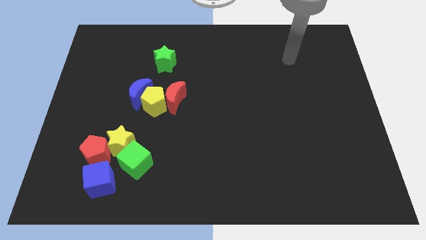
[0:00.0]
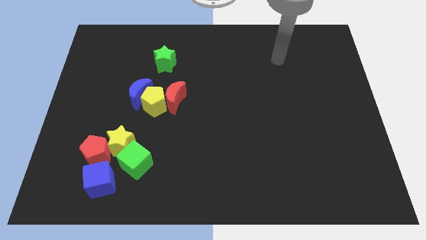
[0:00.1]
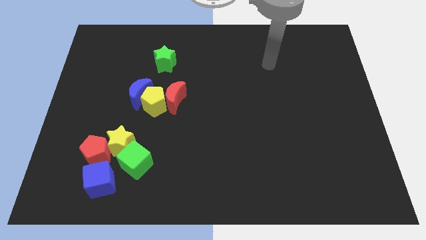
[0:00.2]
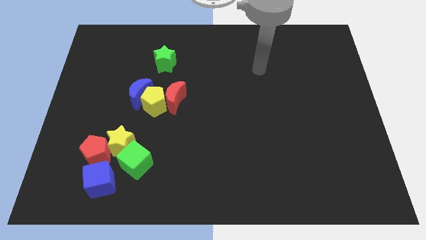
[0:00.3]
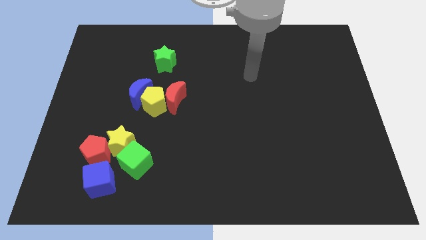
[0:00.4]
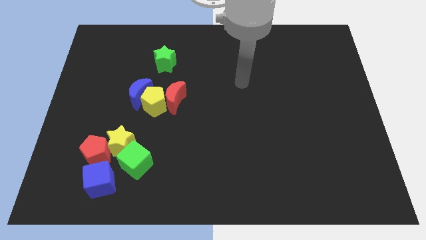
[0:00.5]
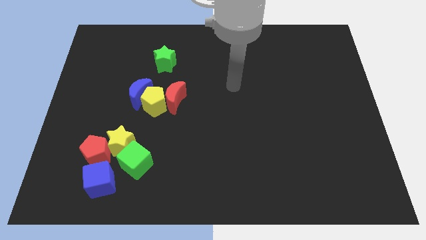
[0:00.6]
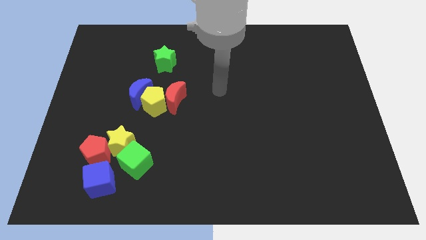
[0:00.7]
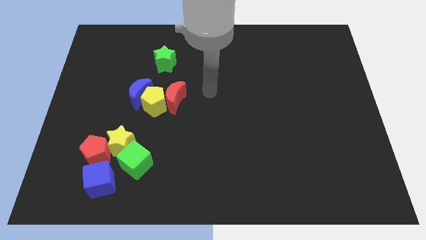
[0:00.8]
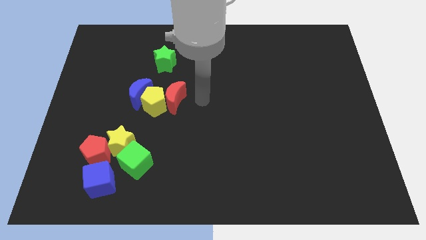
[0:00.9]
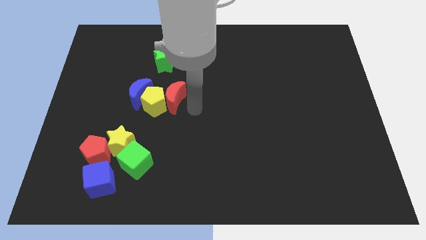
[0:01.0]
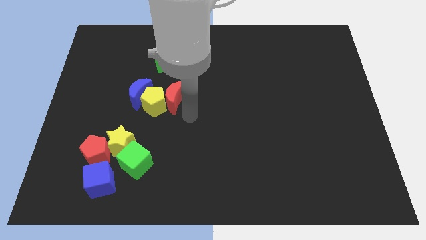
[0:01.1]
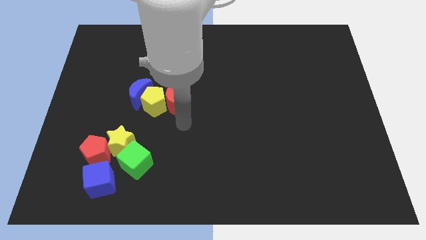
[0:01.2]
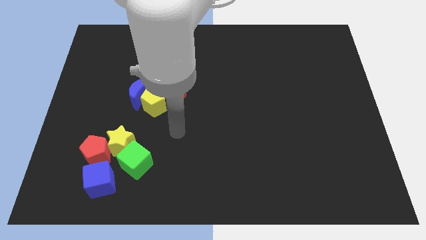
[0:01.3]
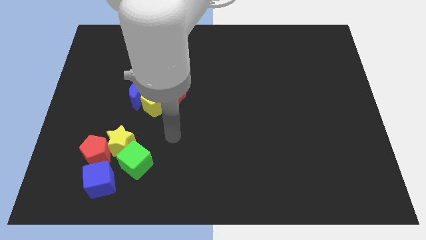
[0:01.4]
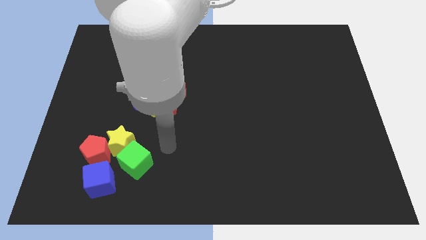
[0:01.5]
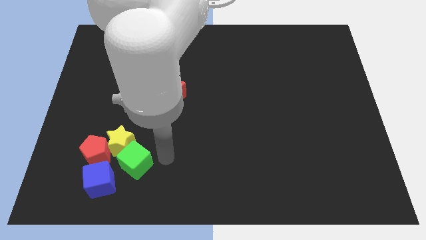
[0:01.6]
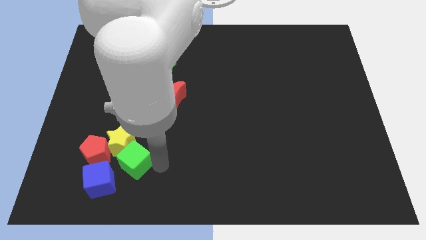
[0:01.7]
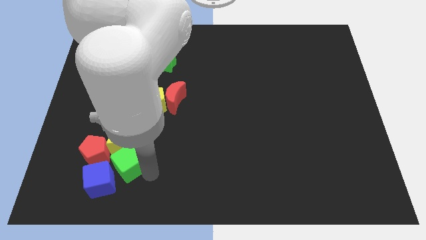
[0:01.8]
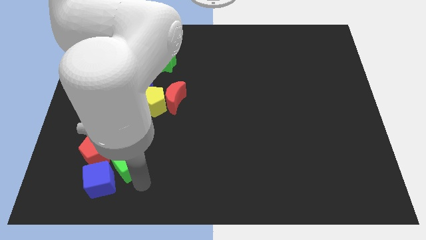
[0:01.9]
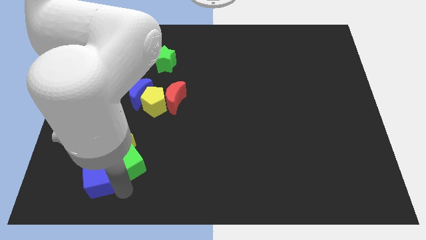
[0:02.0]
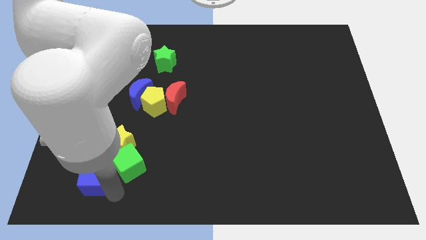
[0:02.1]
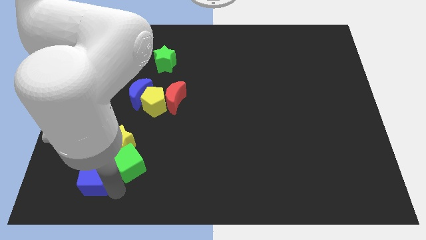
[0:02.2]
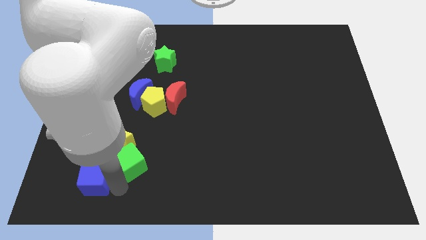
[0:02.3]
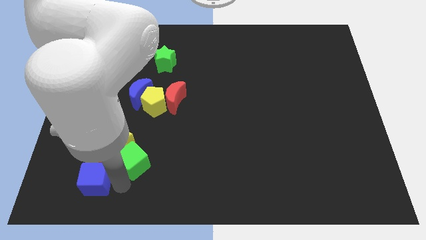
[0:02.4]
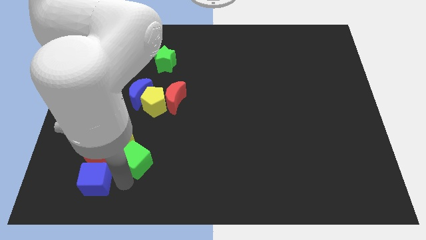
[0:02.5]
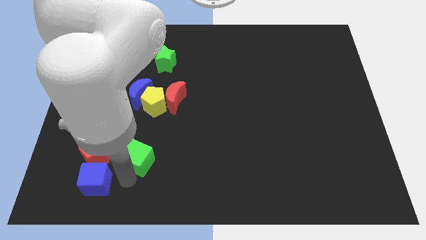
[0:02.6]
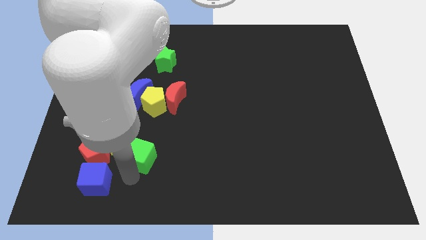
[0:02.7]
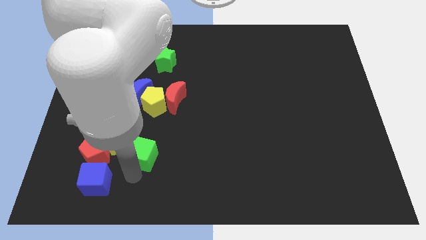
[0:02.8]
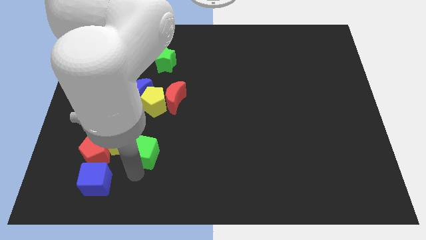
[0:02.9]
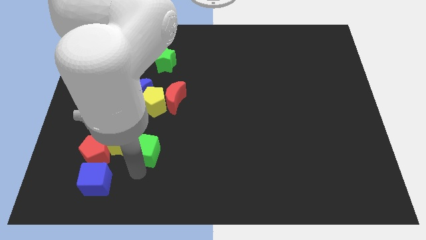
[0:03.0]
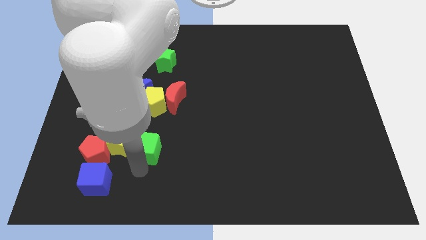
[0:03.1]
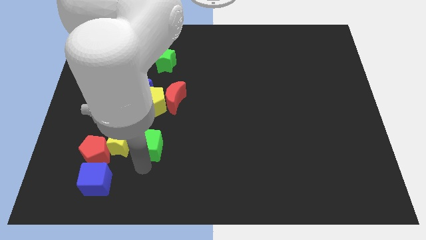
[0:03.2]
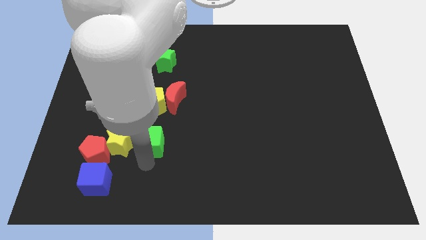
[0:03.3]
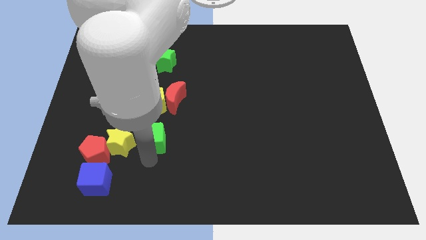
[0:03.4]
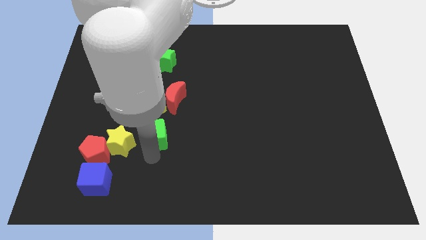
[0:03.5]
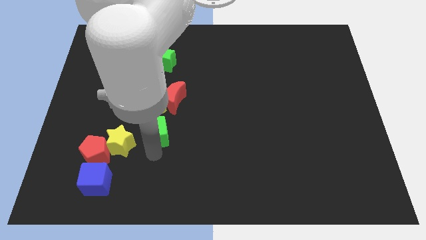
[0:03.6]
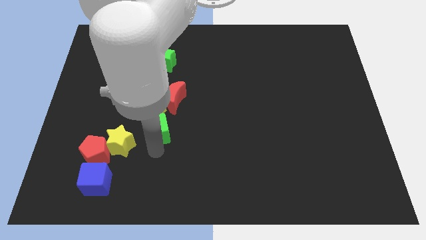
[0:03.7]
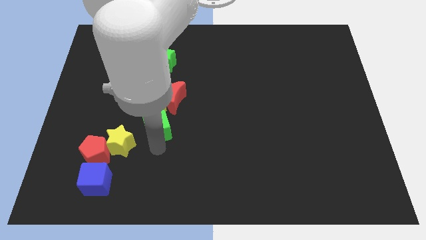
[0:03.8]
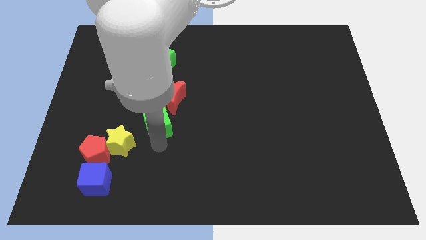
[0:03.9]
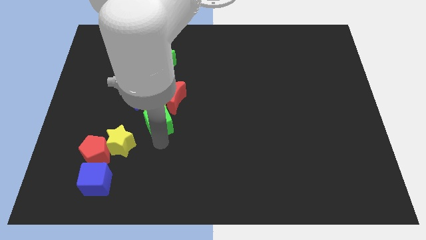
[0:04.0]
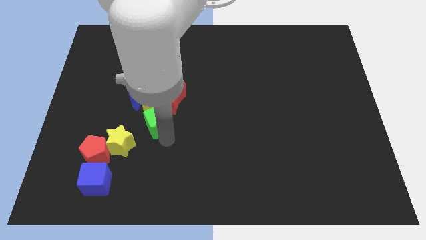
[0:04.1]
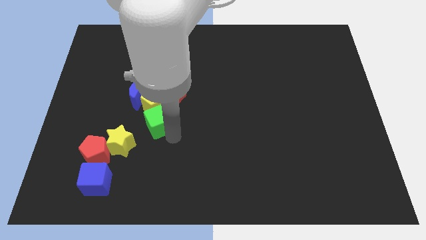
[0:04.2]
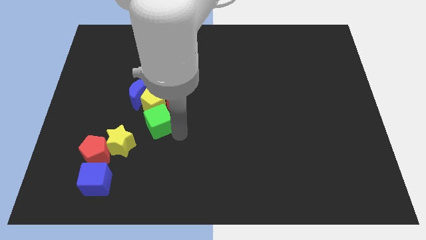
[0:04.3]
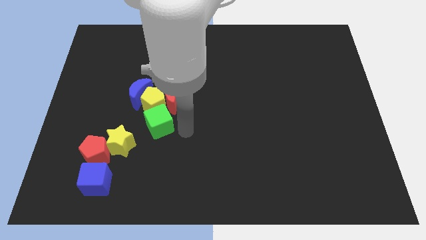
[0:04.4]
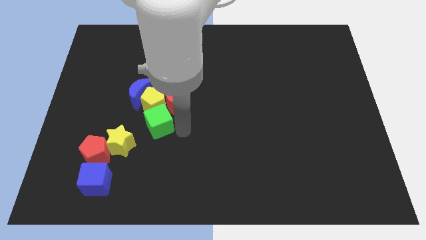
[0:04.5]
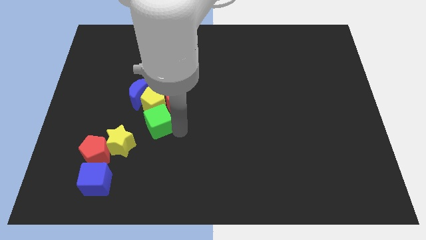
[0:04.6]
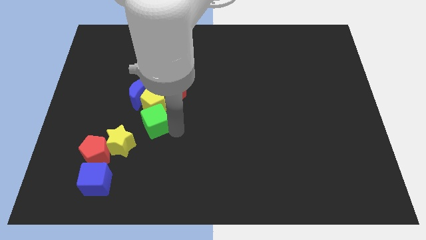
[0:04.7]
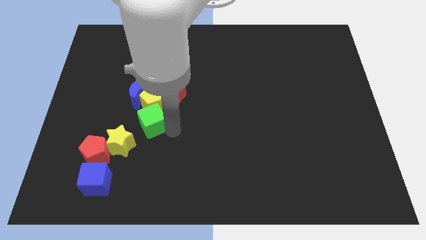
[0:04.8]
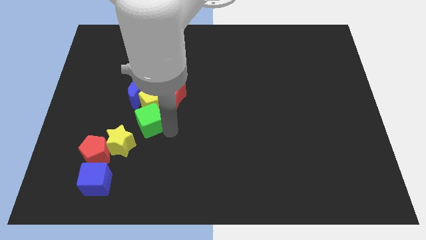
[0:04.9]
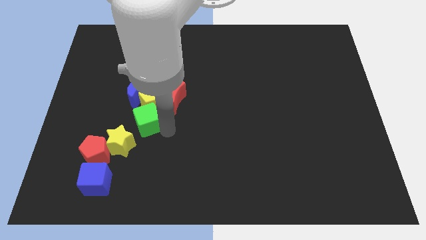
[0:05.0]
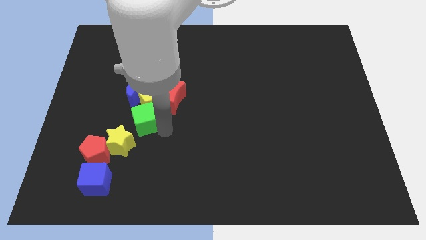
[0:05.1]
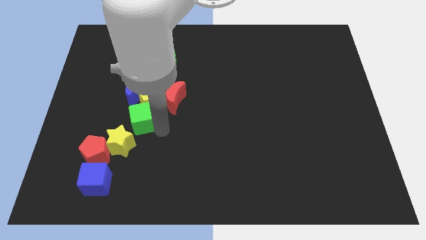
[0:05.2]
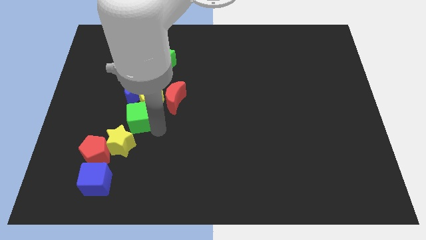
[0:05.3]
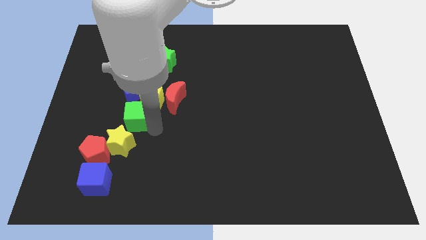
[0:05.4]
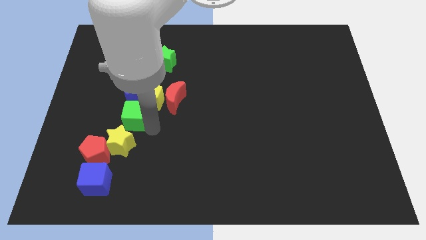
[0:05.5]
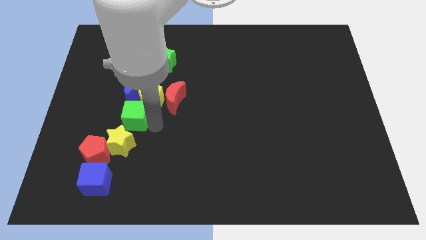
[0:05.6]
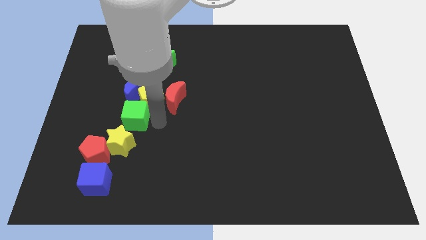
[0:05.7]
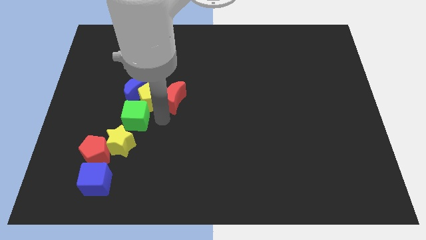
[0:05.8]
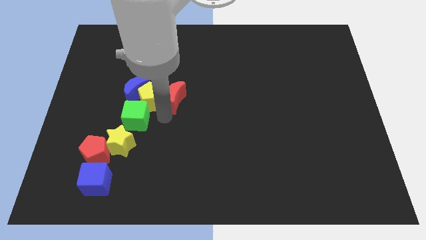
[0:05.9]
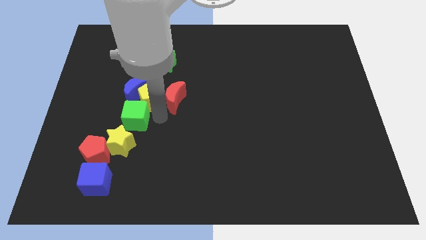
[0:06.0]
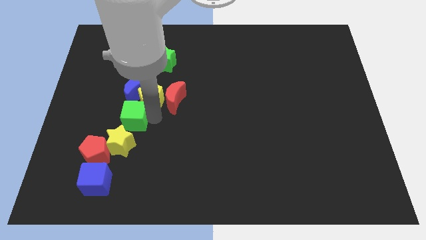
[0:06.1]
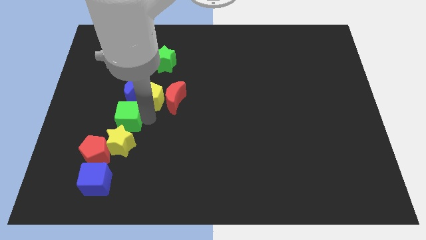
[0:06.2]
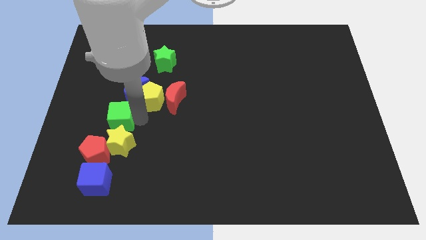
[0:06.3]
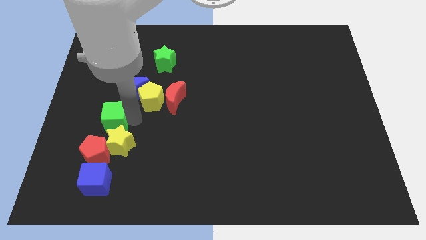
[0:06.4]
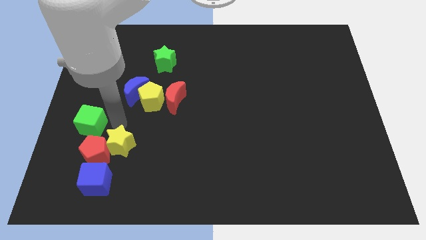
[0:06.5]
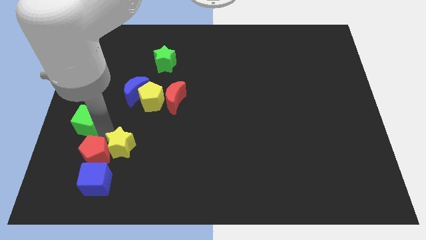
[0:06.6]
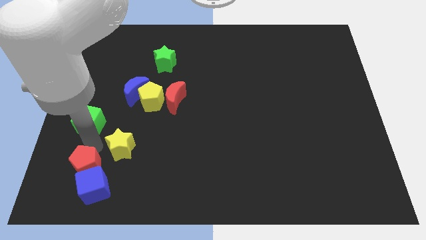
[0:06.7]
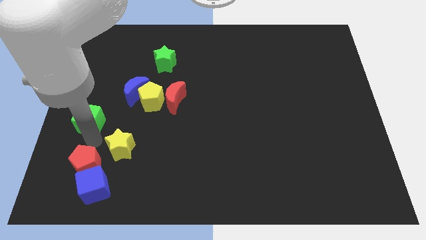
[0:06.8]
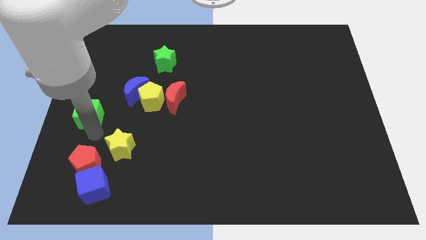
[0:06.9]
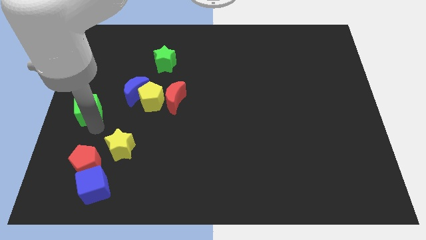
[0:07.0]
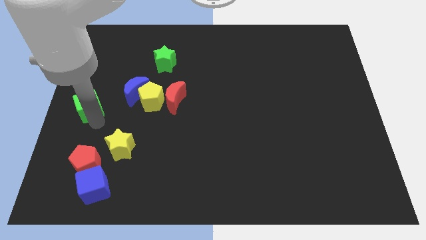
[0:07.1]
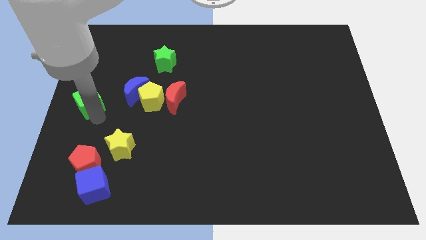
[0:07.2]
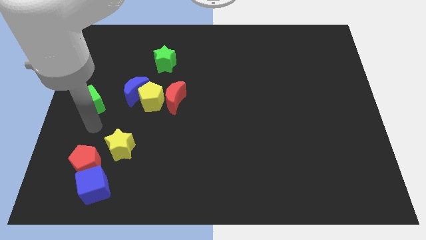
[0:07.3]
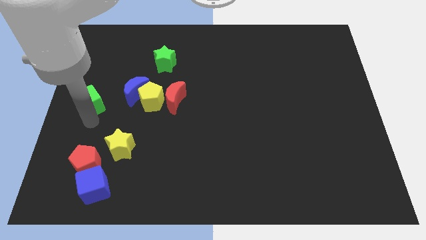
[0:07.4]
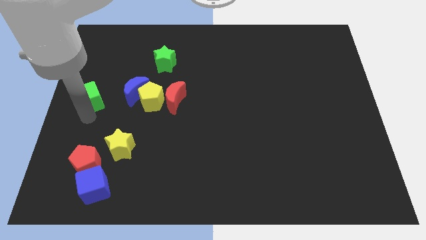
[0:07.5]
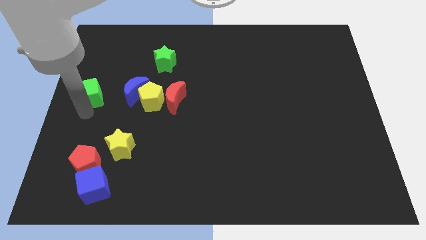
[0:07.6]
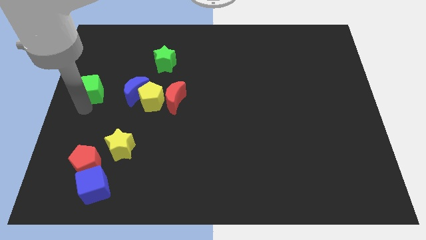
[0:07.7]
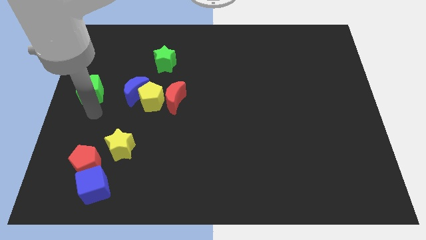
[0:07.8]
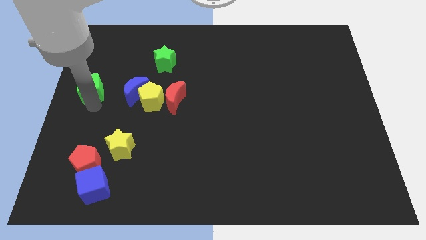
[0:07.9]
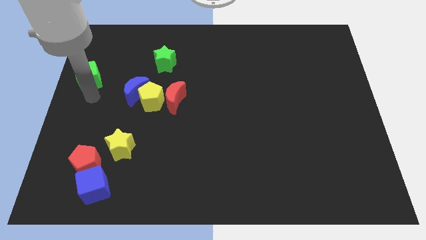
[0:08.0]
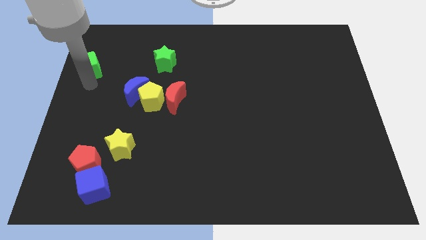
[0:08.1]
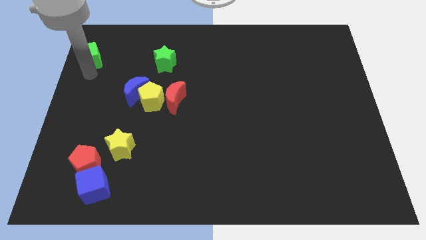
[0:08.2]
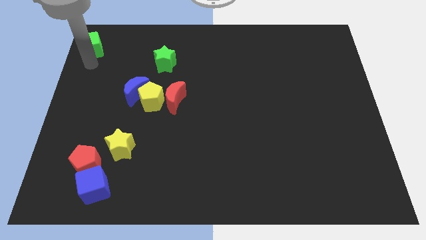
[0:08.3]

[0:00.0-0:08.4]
move the green cube to the top left of the board
